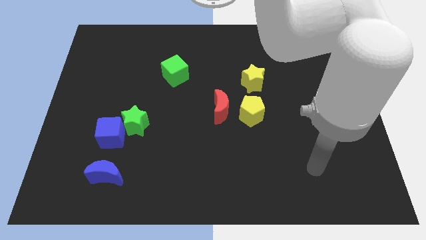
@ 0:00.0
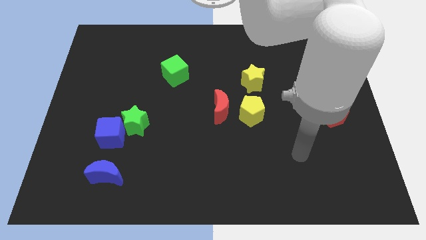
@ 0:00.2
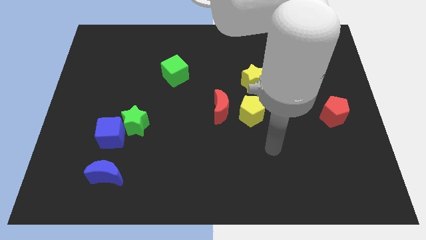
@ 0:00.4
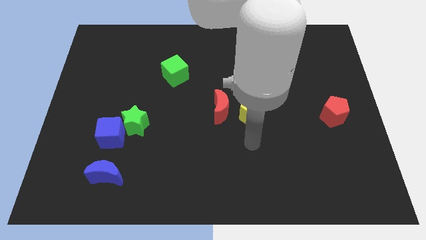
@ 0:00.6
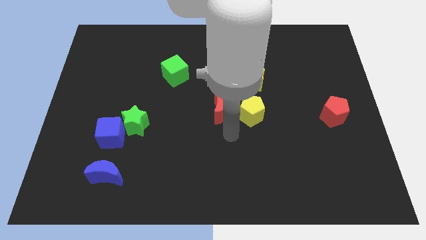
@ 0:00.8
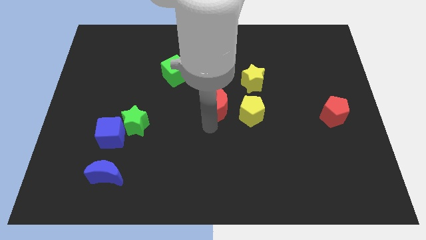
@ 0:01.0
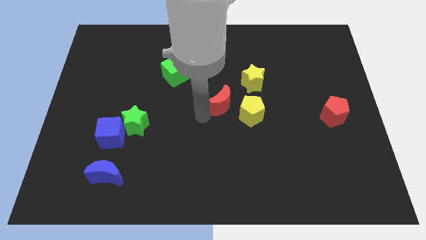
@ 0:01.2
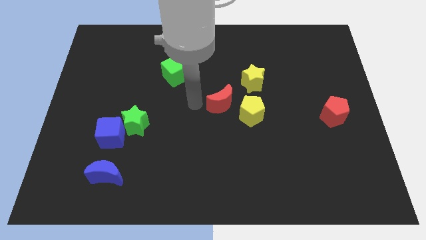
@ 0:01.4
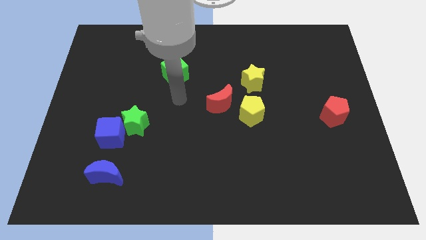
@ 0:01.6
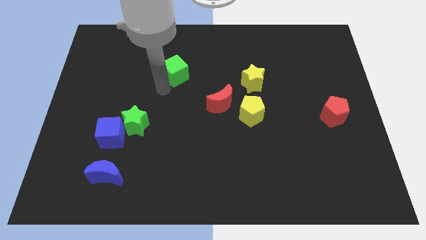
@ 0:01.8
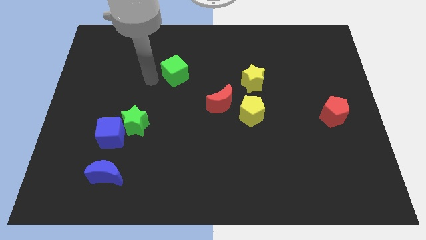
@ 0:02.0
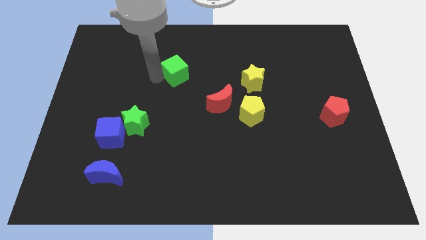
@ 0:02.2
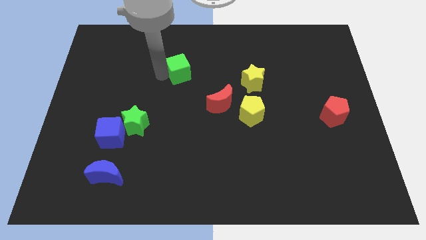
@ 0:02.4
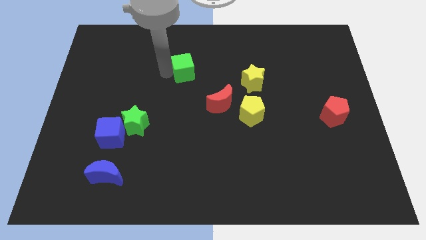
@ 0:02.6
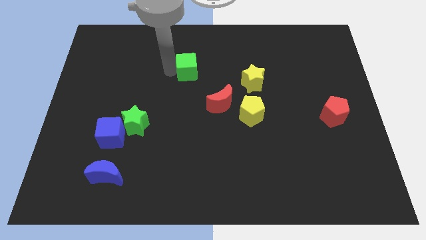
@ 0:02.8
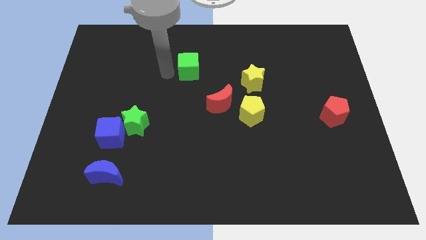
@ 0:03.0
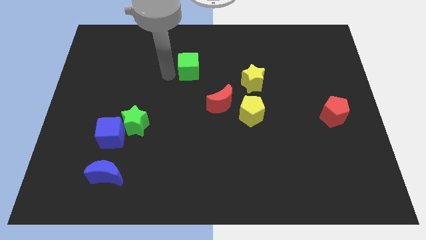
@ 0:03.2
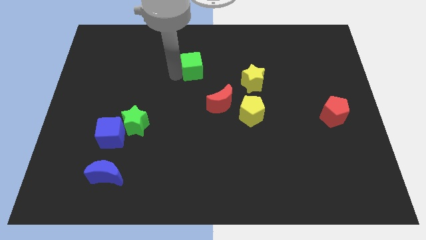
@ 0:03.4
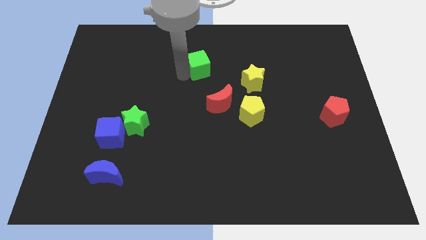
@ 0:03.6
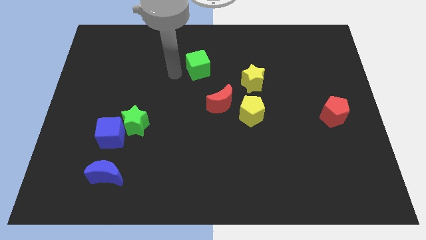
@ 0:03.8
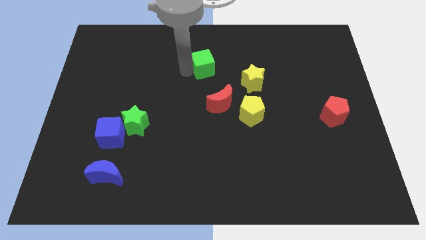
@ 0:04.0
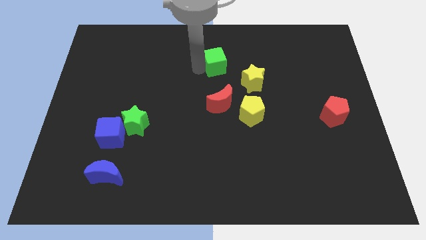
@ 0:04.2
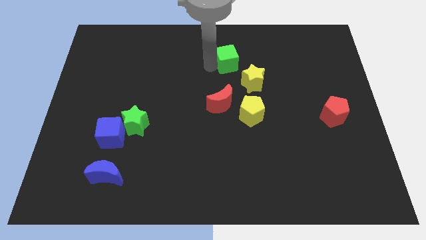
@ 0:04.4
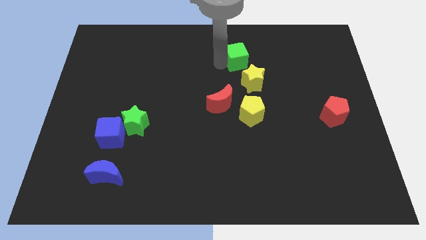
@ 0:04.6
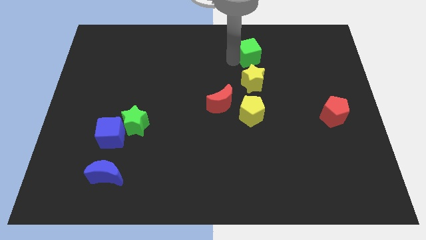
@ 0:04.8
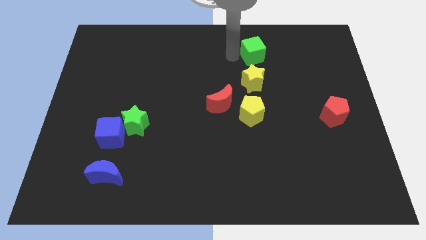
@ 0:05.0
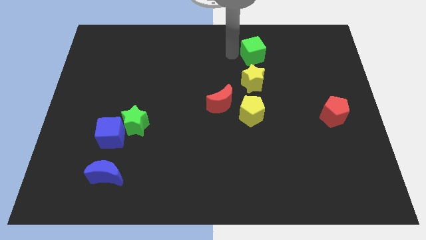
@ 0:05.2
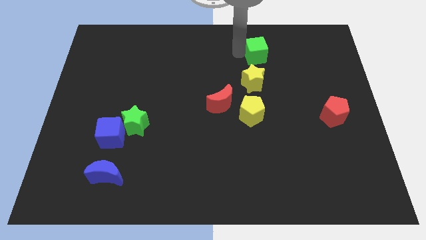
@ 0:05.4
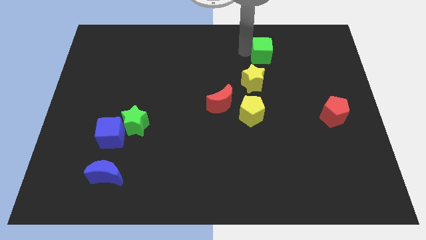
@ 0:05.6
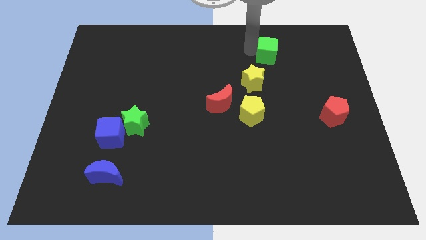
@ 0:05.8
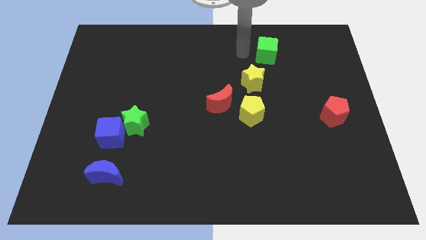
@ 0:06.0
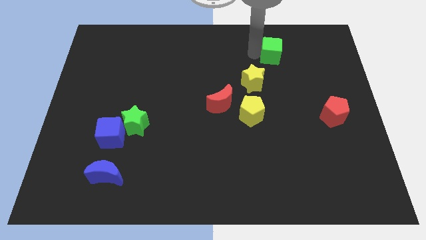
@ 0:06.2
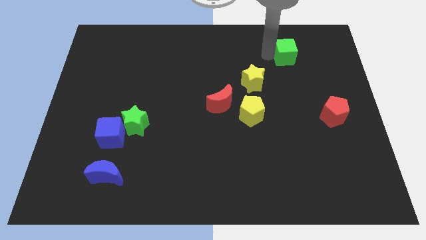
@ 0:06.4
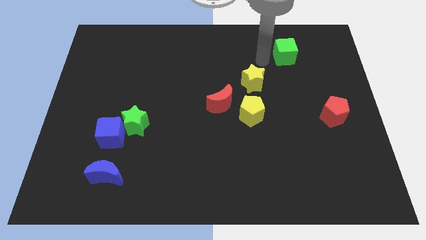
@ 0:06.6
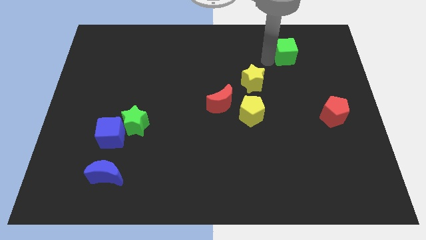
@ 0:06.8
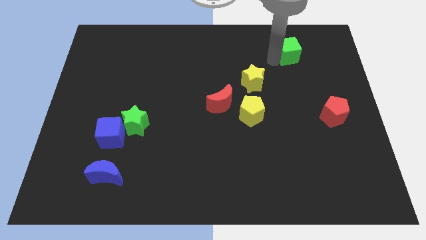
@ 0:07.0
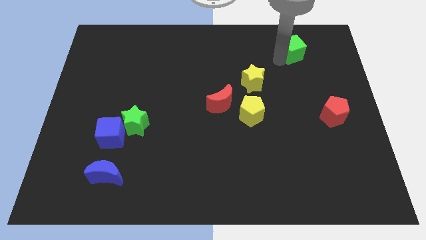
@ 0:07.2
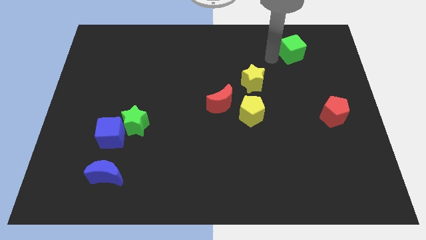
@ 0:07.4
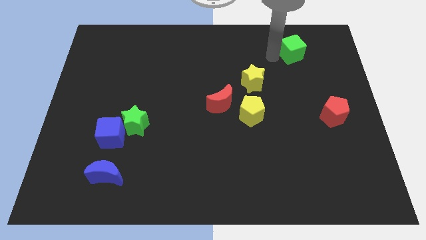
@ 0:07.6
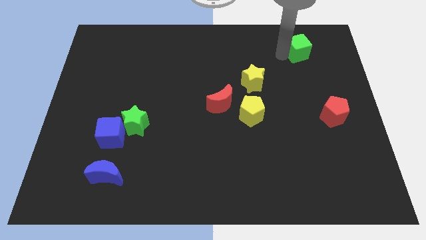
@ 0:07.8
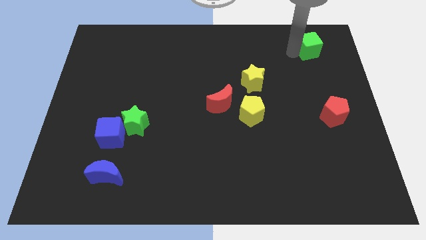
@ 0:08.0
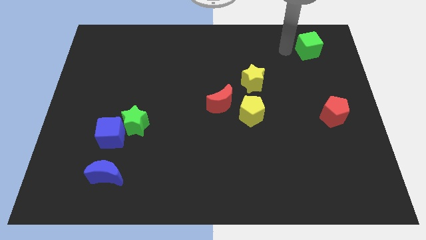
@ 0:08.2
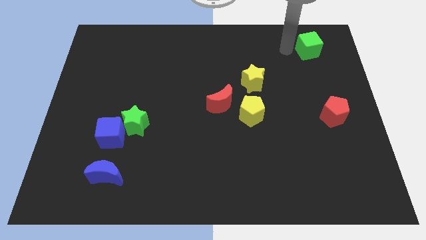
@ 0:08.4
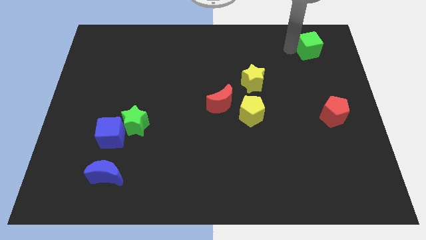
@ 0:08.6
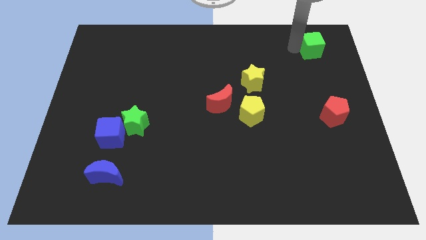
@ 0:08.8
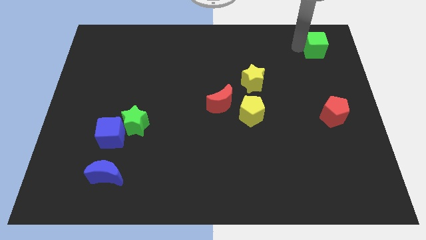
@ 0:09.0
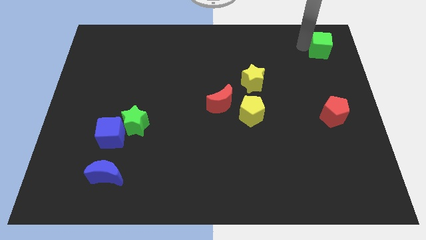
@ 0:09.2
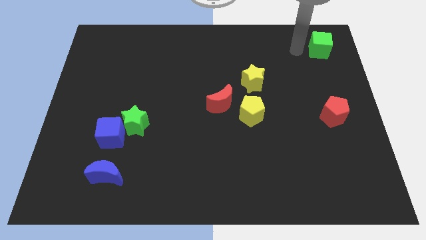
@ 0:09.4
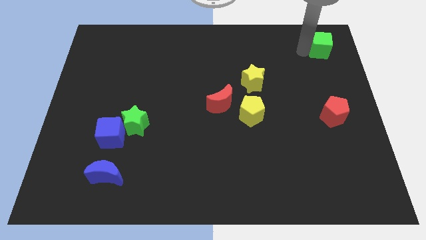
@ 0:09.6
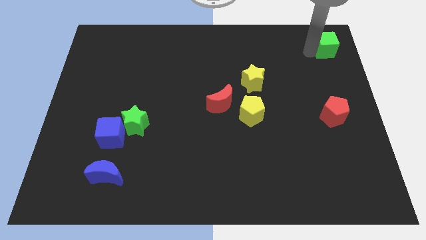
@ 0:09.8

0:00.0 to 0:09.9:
slide the green cube to the top right of the board

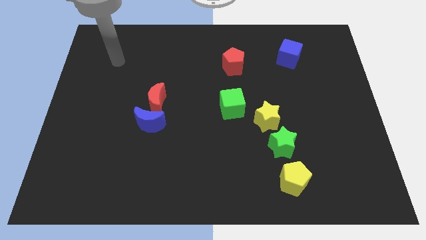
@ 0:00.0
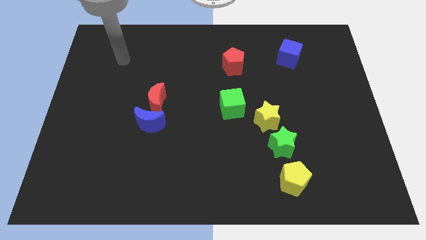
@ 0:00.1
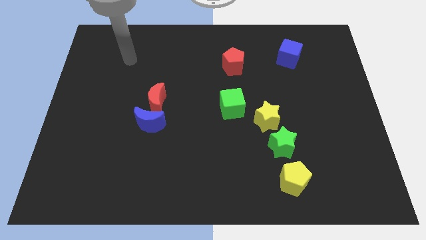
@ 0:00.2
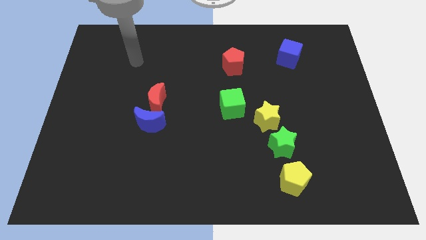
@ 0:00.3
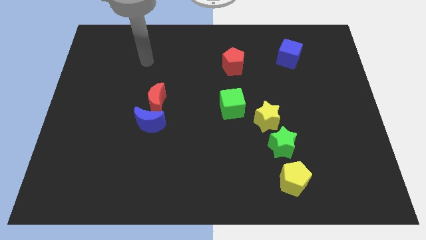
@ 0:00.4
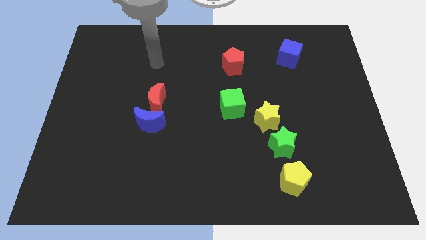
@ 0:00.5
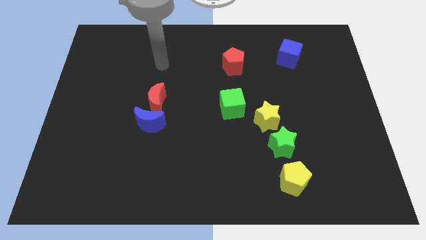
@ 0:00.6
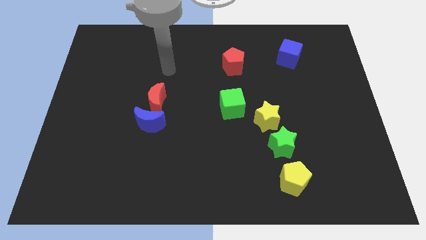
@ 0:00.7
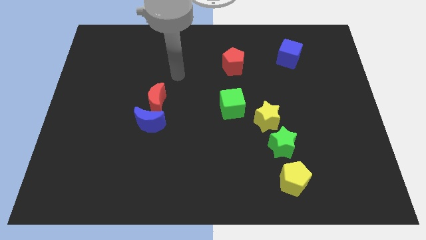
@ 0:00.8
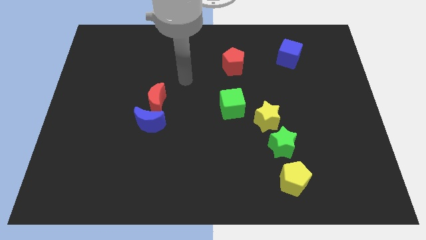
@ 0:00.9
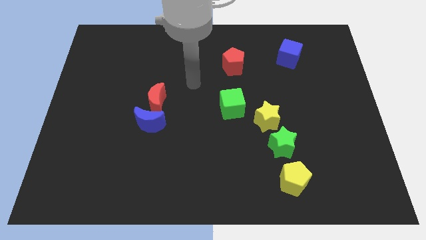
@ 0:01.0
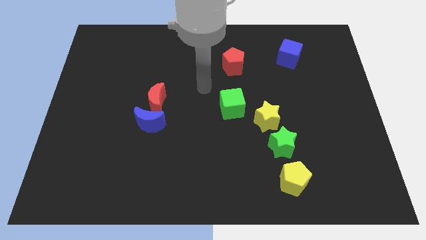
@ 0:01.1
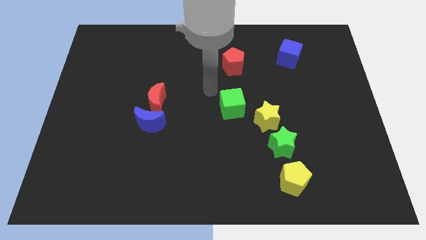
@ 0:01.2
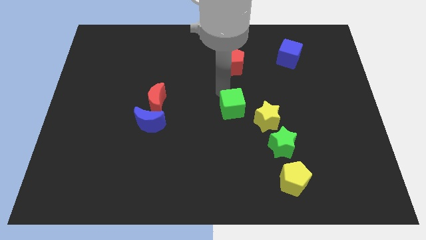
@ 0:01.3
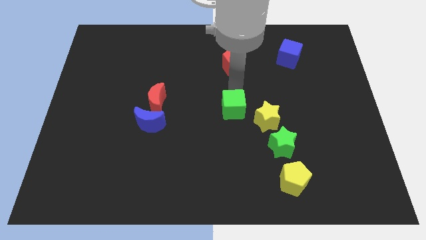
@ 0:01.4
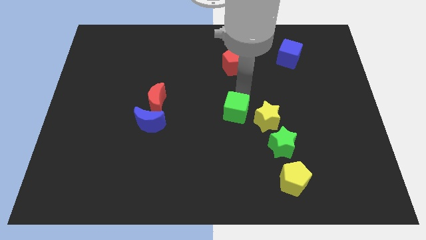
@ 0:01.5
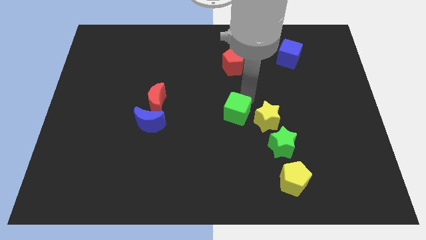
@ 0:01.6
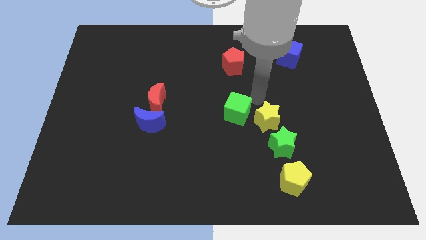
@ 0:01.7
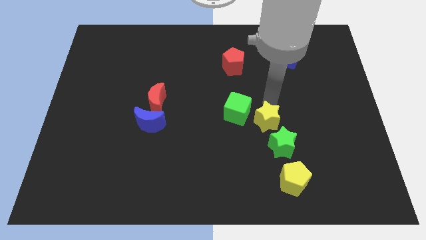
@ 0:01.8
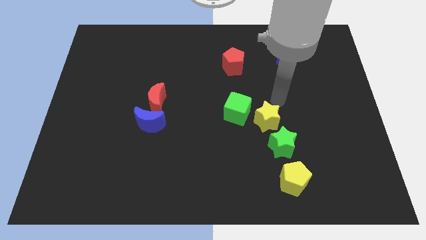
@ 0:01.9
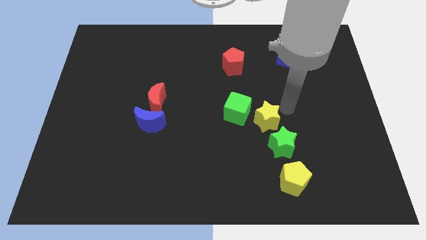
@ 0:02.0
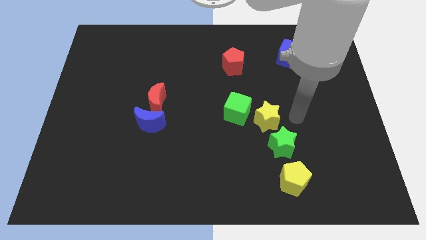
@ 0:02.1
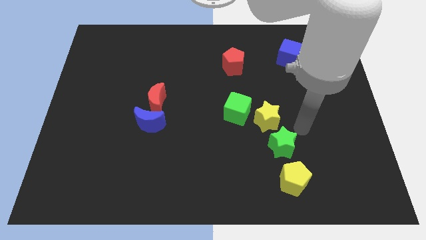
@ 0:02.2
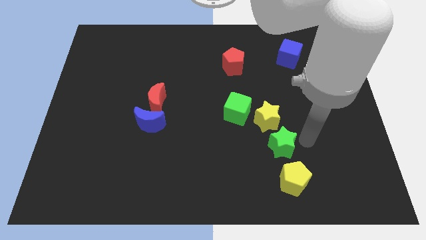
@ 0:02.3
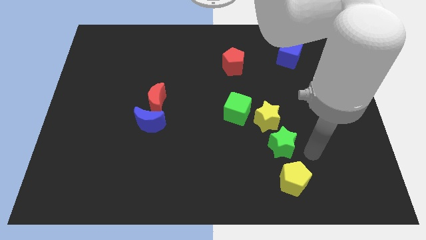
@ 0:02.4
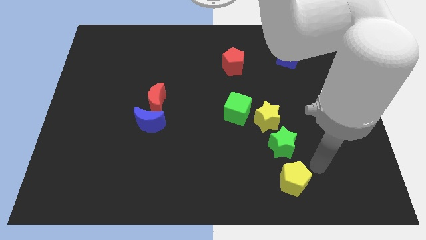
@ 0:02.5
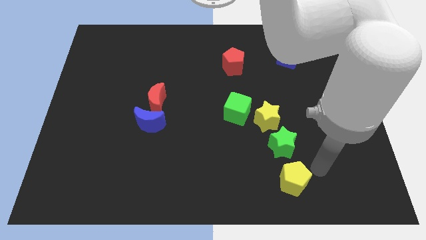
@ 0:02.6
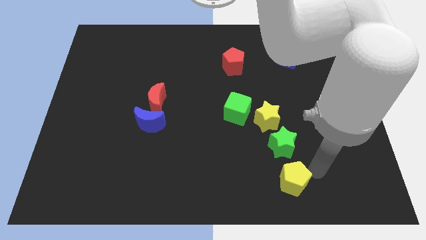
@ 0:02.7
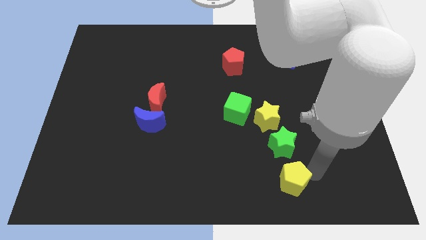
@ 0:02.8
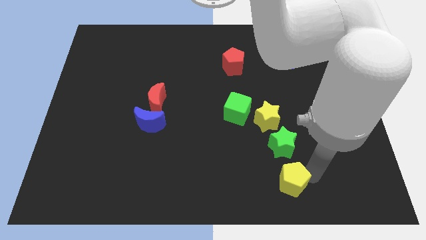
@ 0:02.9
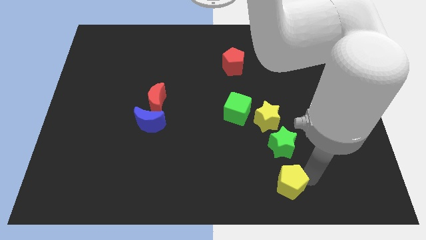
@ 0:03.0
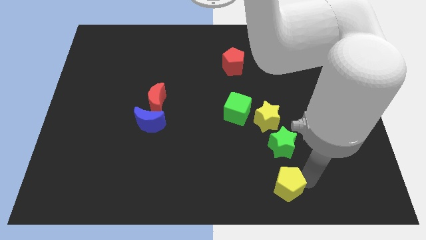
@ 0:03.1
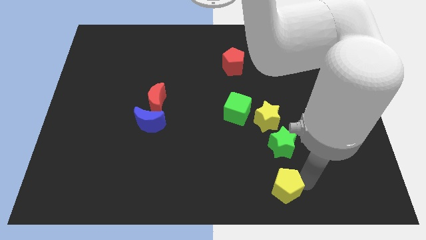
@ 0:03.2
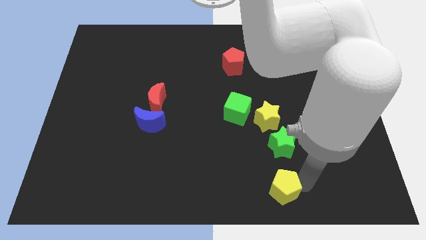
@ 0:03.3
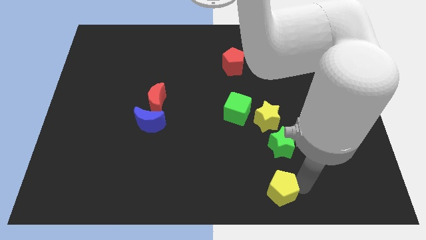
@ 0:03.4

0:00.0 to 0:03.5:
put the yellow pentagon to the bottom
